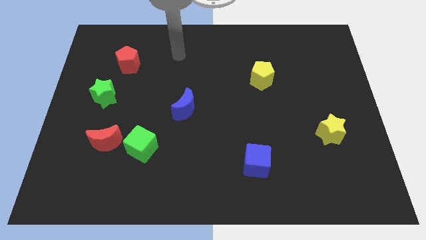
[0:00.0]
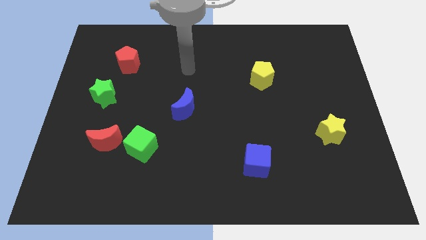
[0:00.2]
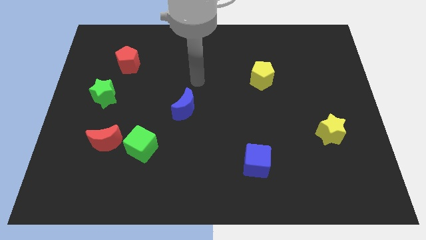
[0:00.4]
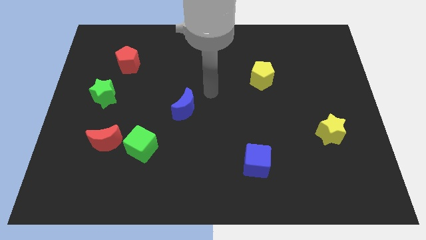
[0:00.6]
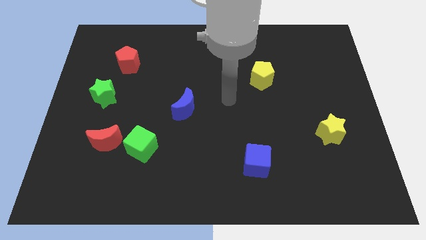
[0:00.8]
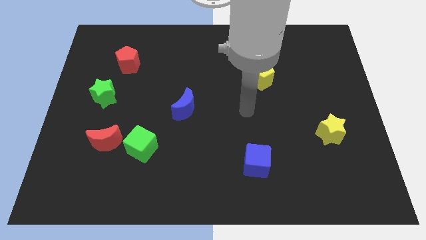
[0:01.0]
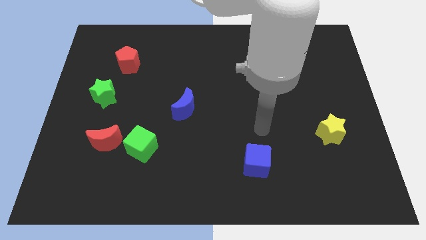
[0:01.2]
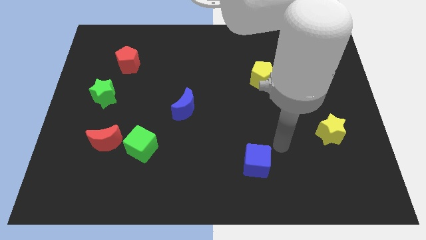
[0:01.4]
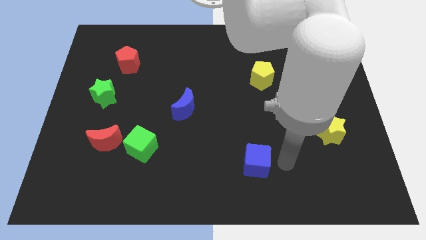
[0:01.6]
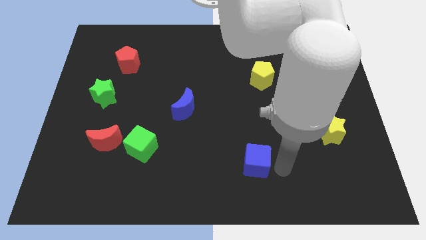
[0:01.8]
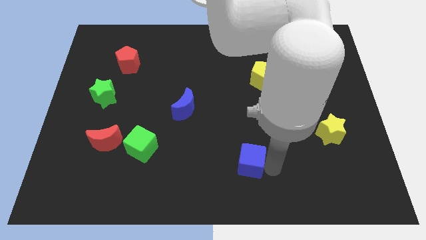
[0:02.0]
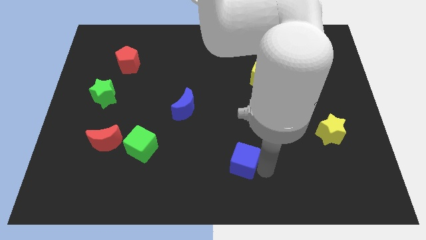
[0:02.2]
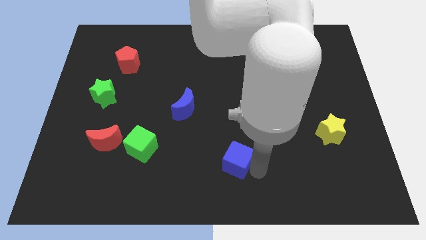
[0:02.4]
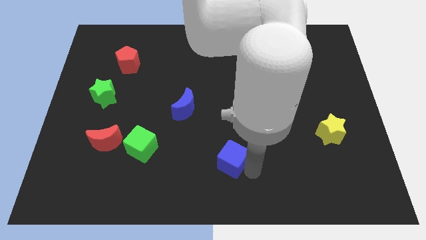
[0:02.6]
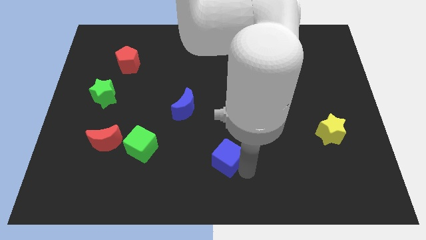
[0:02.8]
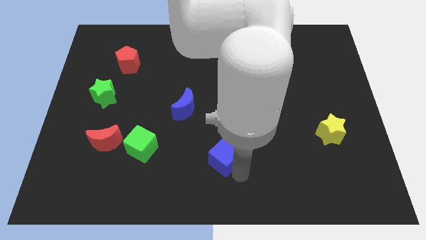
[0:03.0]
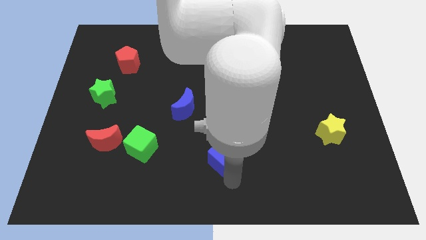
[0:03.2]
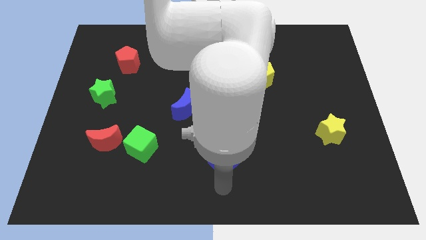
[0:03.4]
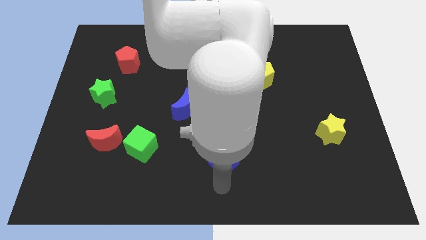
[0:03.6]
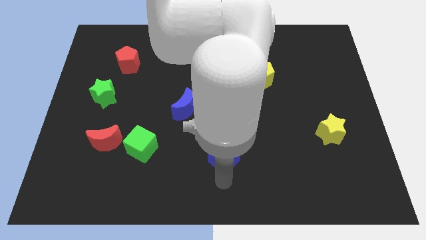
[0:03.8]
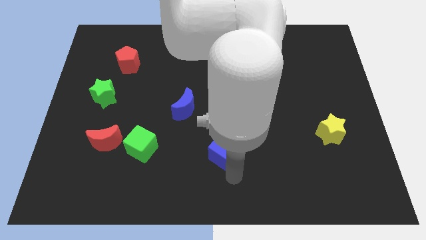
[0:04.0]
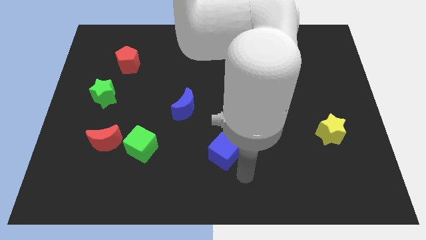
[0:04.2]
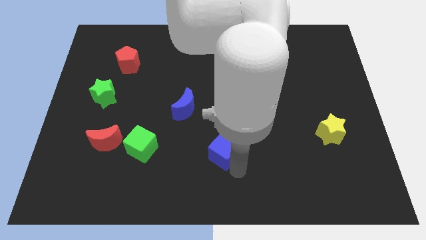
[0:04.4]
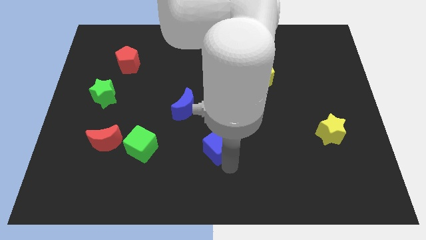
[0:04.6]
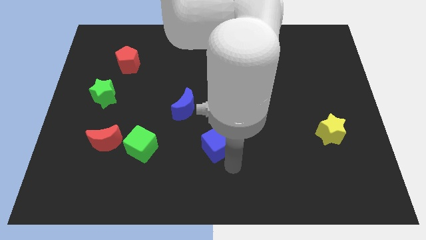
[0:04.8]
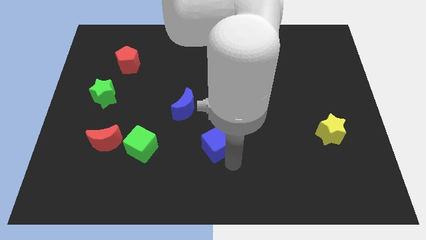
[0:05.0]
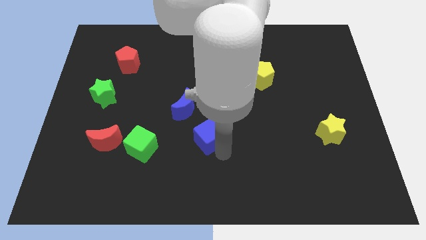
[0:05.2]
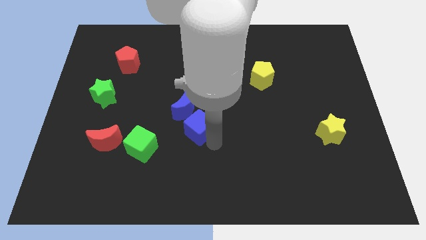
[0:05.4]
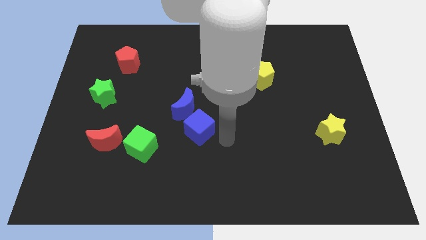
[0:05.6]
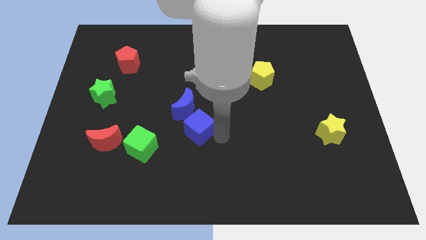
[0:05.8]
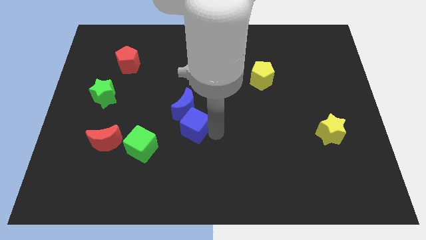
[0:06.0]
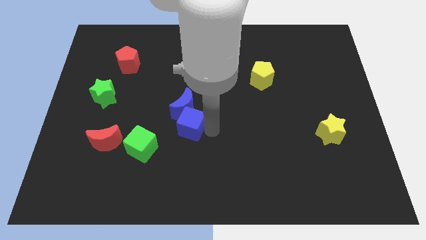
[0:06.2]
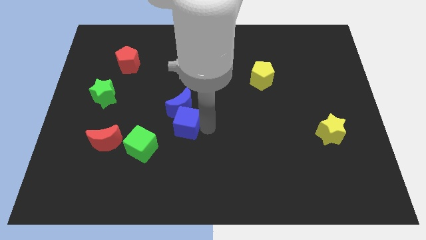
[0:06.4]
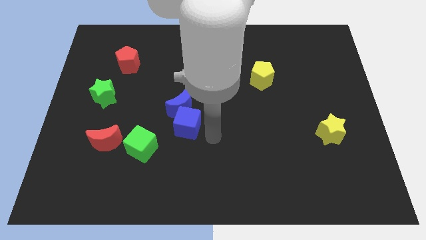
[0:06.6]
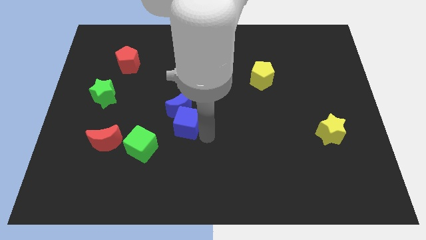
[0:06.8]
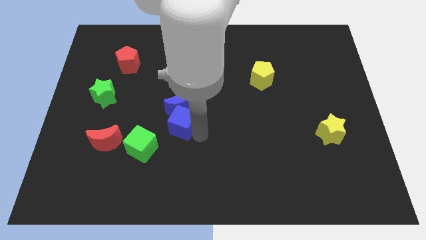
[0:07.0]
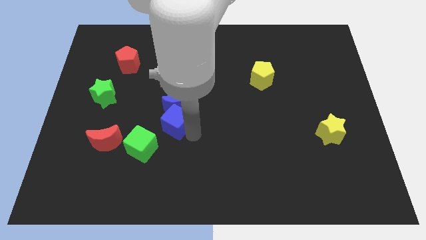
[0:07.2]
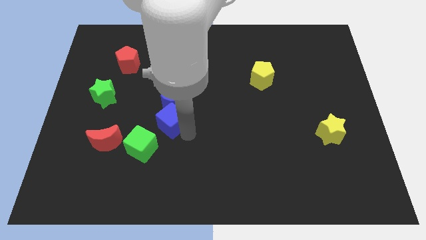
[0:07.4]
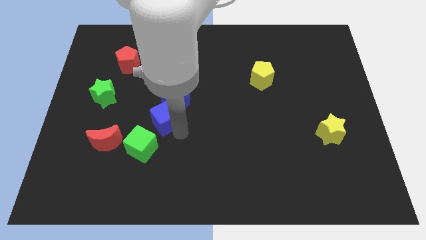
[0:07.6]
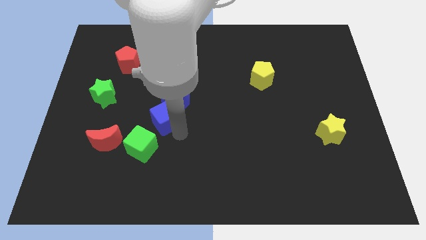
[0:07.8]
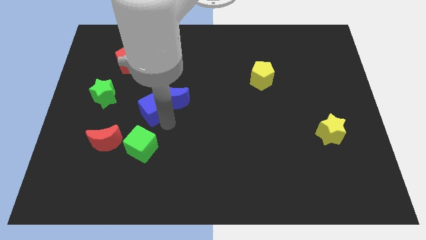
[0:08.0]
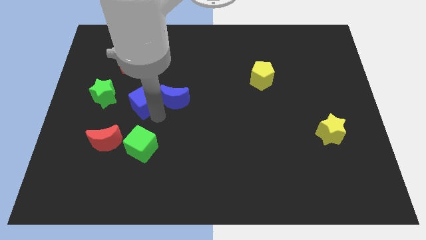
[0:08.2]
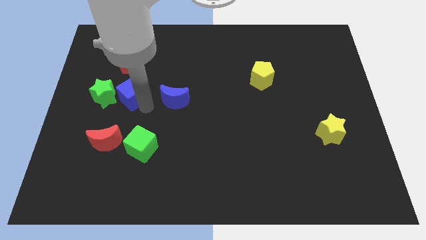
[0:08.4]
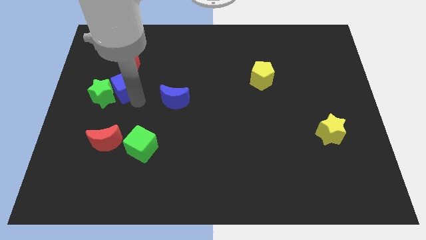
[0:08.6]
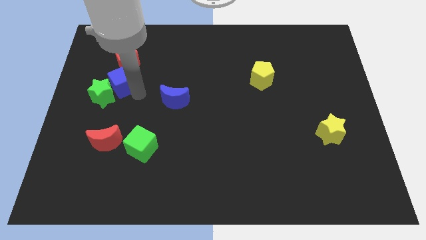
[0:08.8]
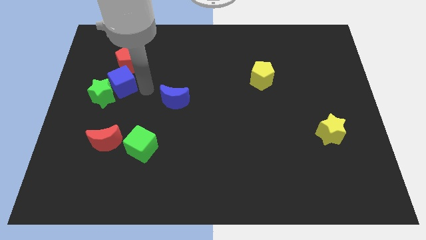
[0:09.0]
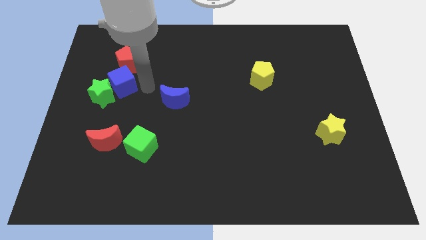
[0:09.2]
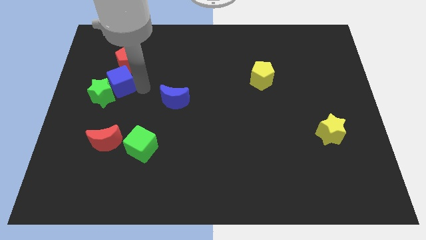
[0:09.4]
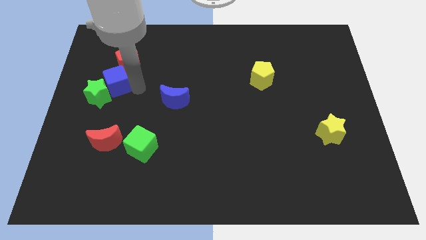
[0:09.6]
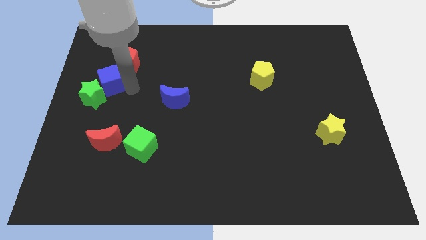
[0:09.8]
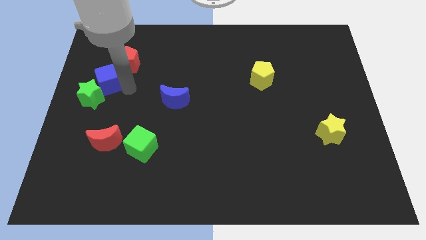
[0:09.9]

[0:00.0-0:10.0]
slide the blue cube to the left side

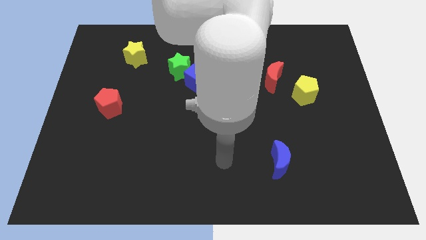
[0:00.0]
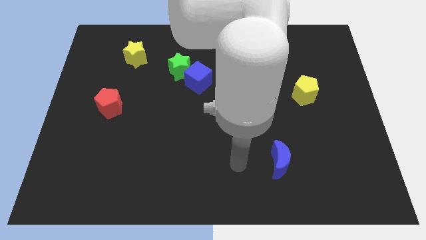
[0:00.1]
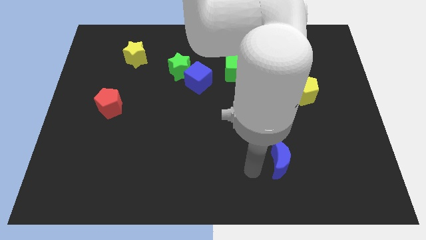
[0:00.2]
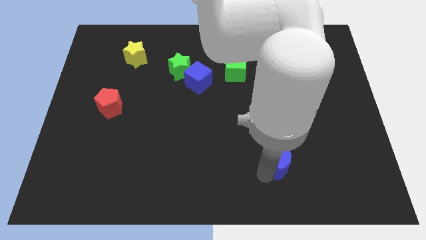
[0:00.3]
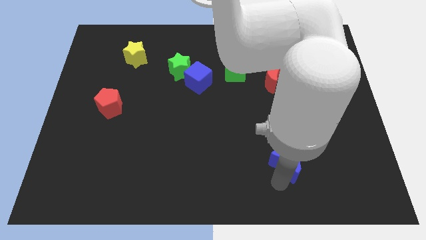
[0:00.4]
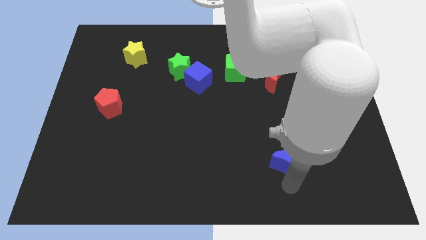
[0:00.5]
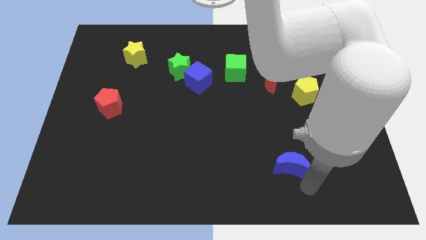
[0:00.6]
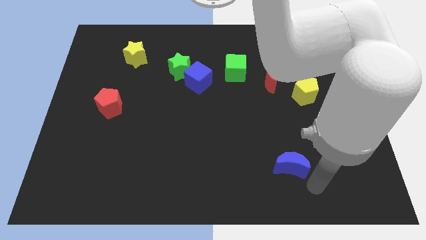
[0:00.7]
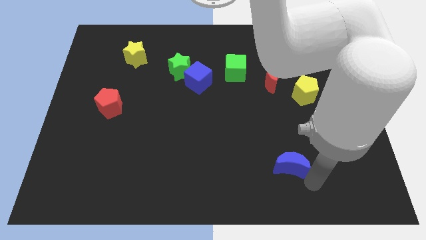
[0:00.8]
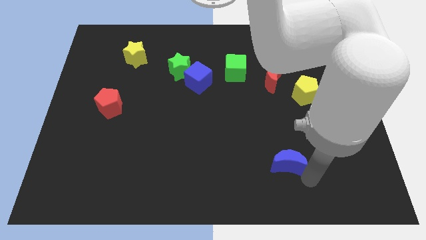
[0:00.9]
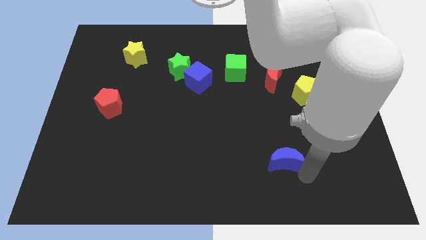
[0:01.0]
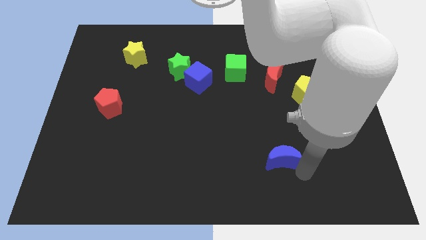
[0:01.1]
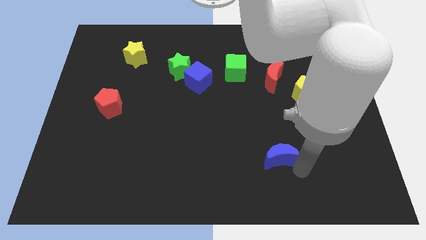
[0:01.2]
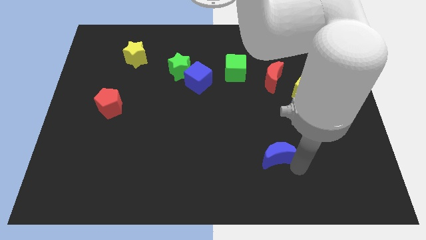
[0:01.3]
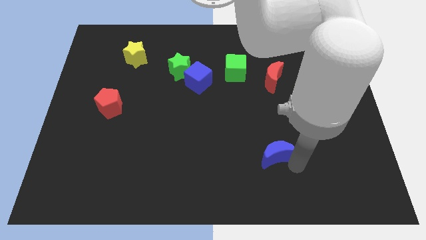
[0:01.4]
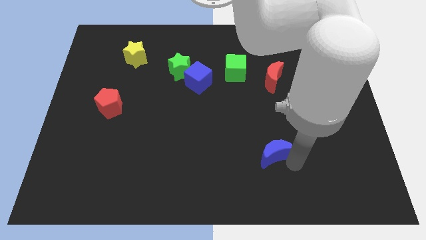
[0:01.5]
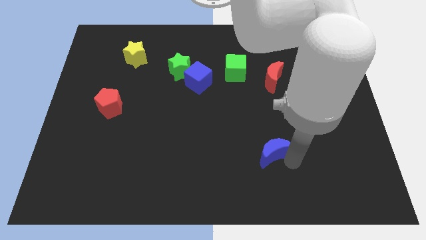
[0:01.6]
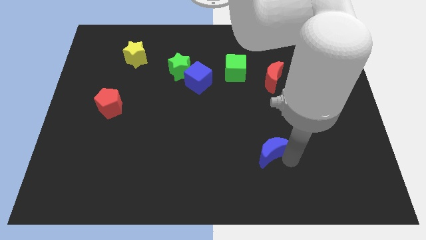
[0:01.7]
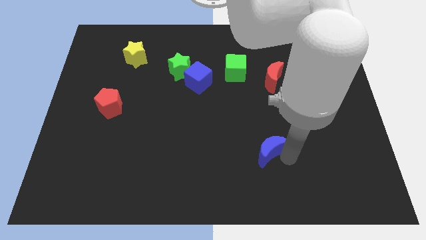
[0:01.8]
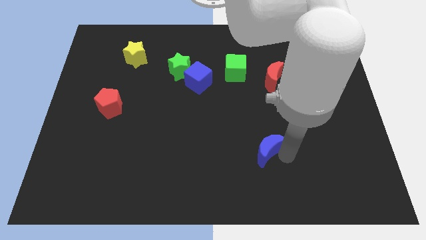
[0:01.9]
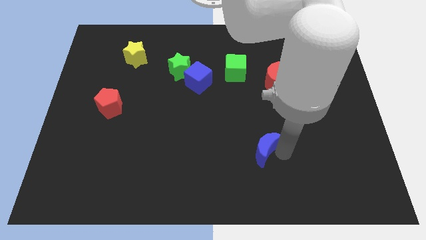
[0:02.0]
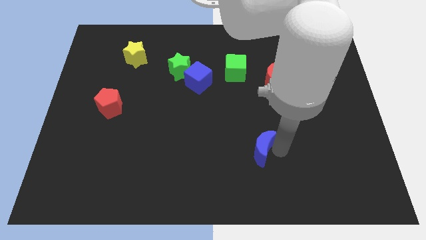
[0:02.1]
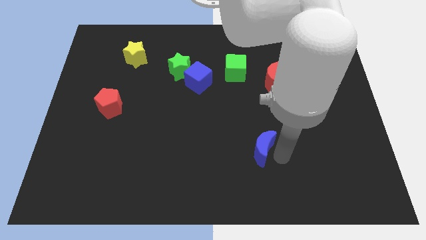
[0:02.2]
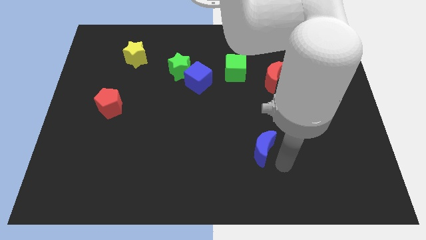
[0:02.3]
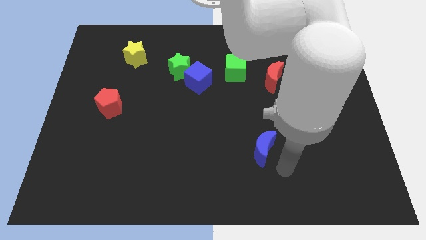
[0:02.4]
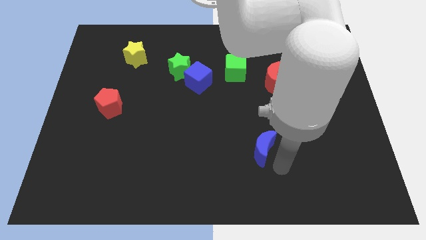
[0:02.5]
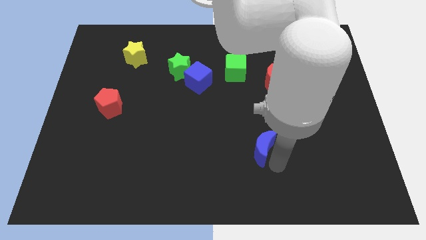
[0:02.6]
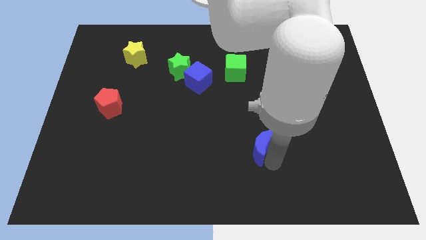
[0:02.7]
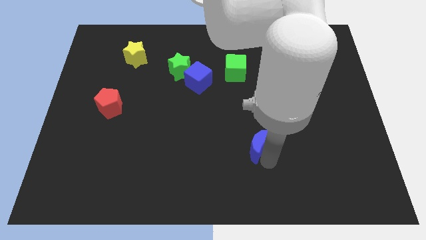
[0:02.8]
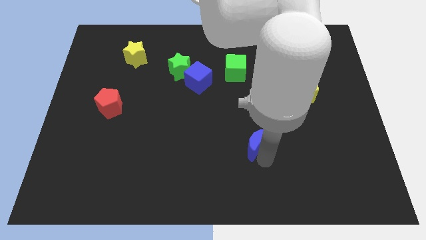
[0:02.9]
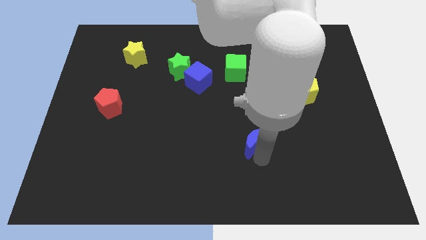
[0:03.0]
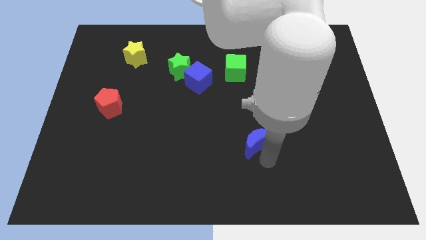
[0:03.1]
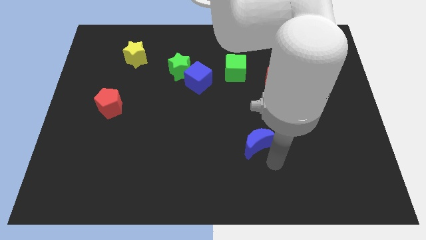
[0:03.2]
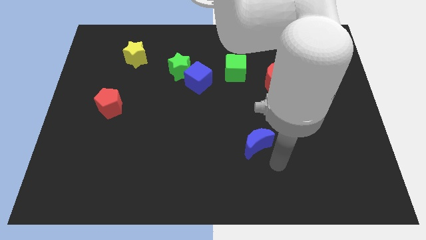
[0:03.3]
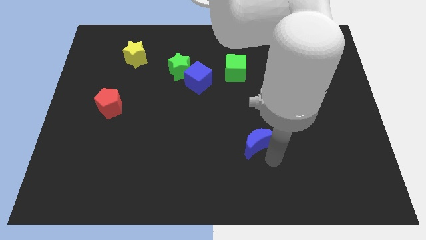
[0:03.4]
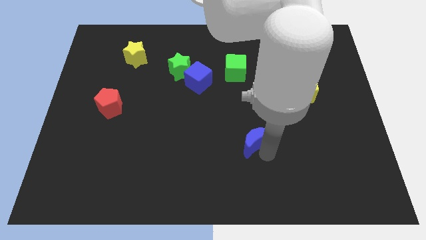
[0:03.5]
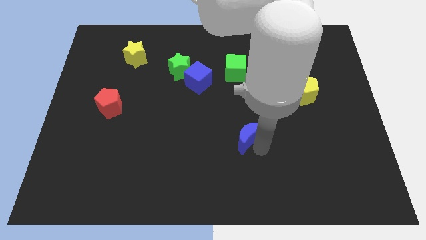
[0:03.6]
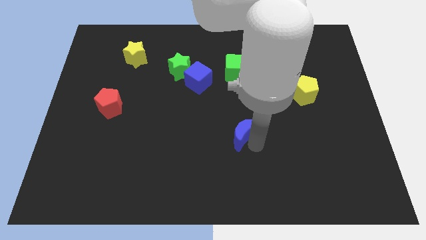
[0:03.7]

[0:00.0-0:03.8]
push the blue moon to the middle of the board
